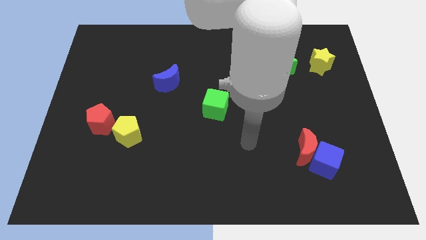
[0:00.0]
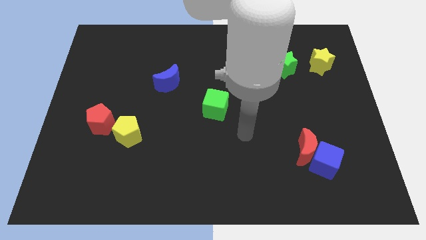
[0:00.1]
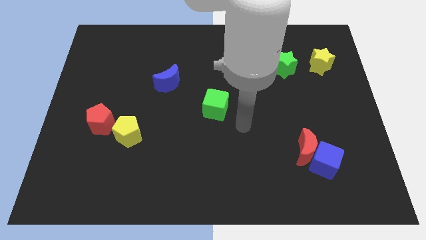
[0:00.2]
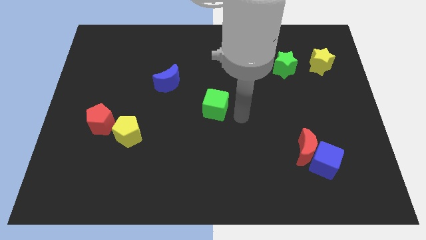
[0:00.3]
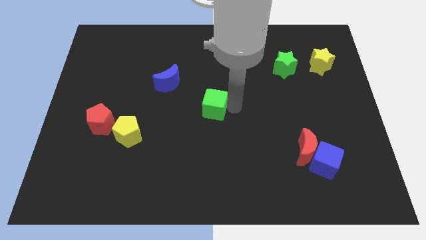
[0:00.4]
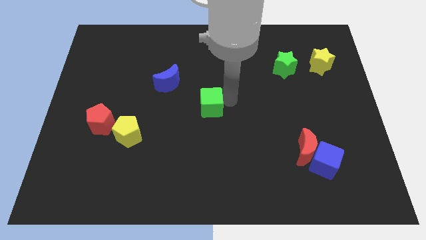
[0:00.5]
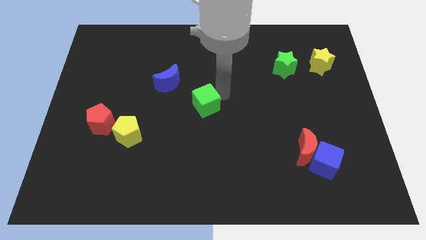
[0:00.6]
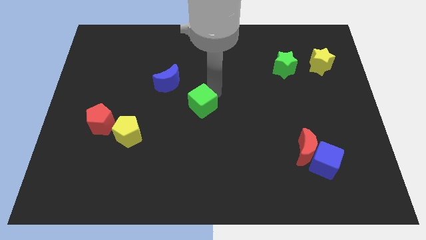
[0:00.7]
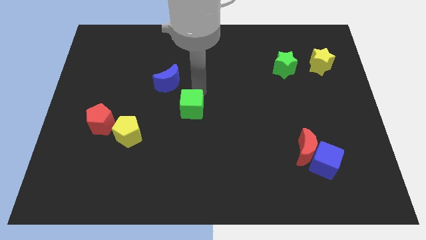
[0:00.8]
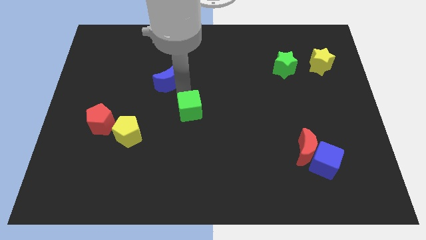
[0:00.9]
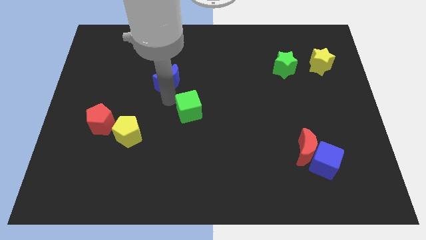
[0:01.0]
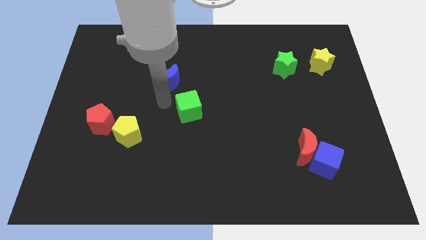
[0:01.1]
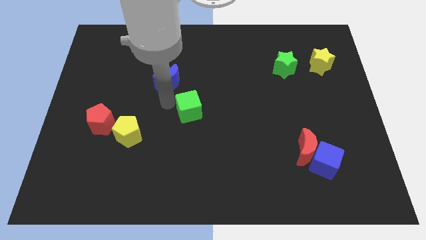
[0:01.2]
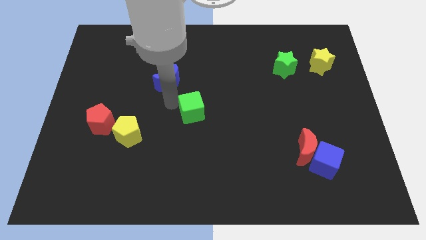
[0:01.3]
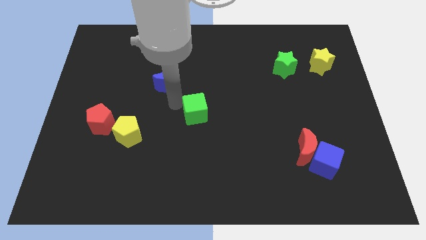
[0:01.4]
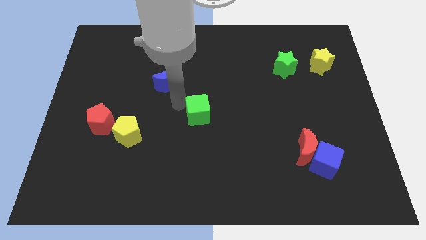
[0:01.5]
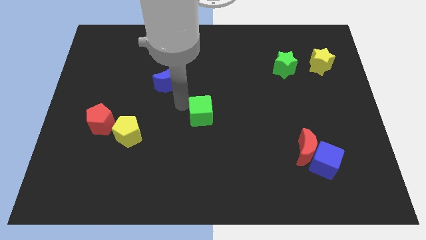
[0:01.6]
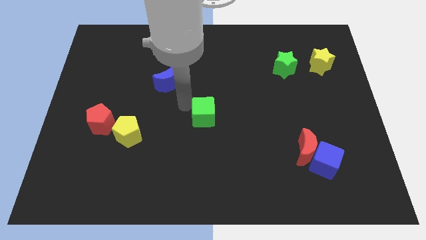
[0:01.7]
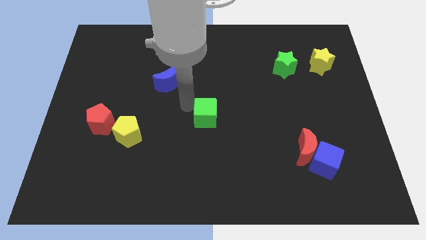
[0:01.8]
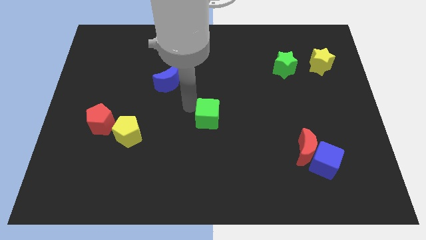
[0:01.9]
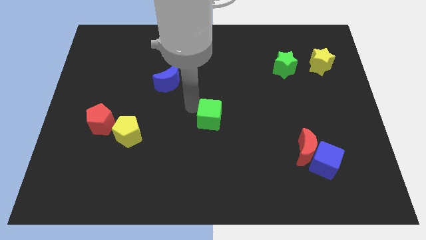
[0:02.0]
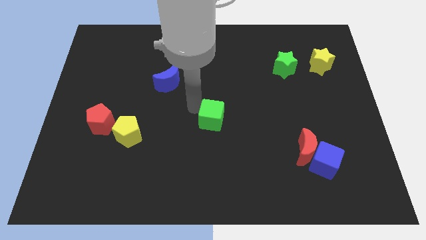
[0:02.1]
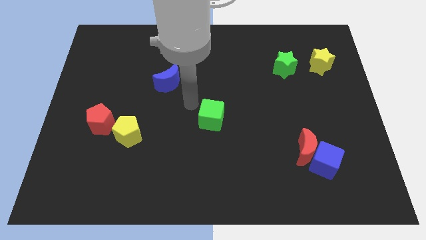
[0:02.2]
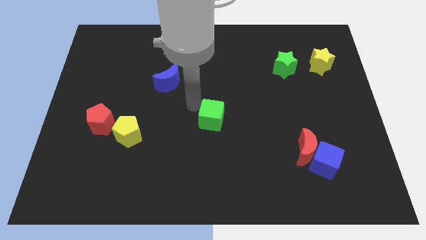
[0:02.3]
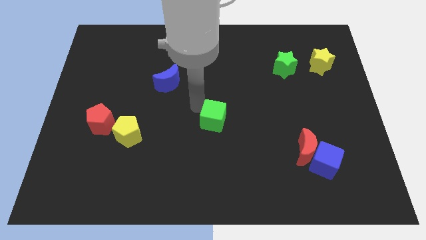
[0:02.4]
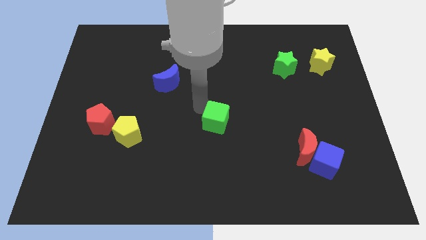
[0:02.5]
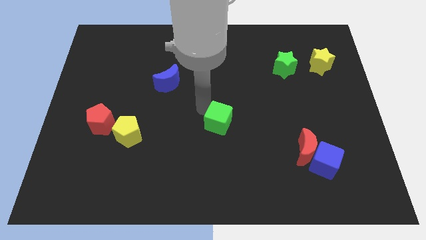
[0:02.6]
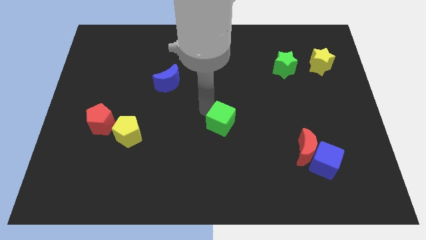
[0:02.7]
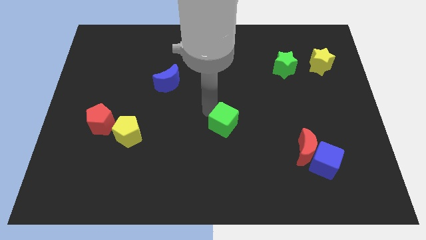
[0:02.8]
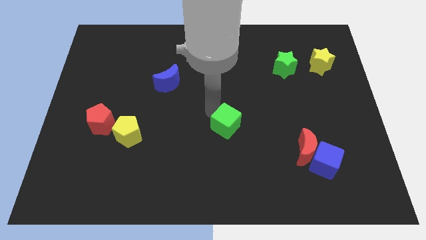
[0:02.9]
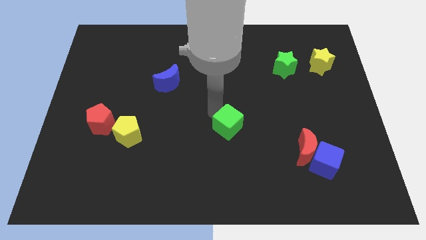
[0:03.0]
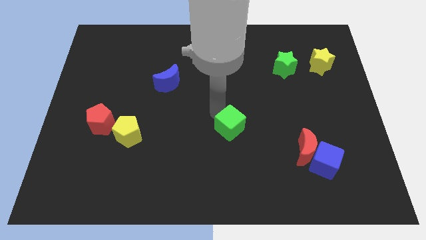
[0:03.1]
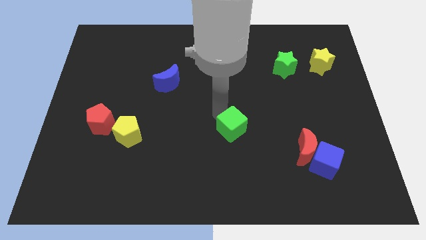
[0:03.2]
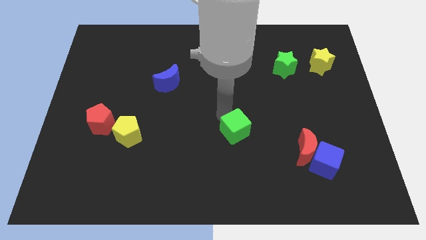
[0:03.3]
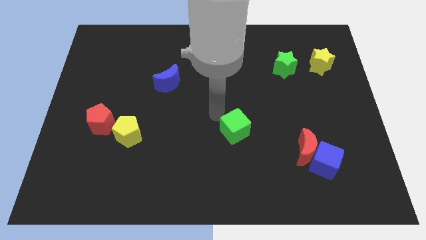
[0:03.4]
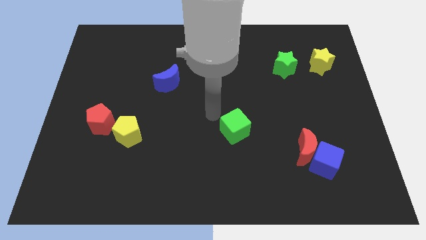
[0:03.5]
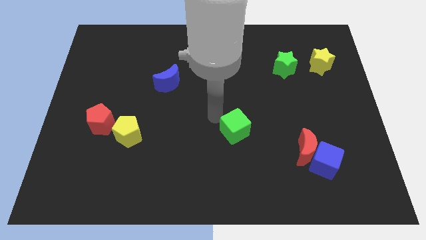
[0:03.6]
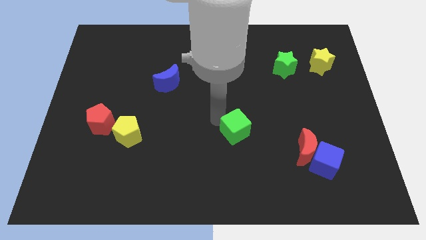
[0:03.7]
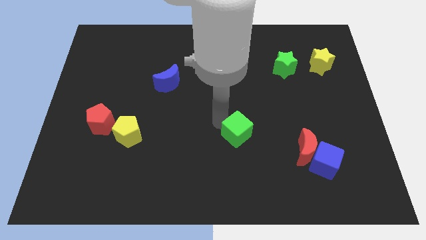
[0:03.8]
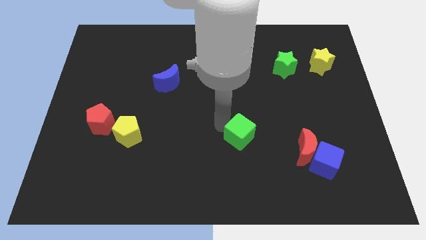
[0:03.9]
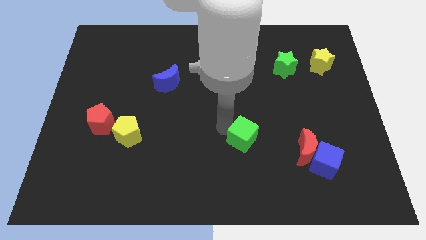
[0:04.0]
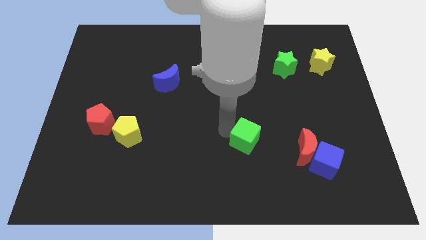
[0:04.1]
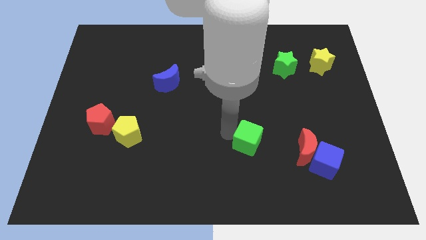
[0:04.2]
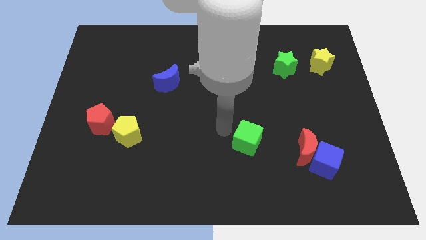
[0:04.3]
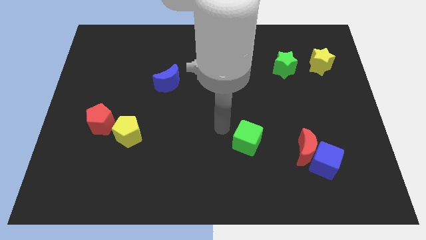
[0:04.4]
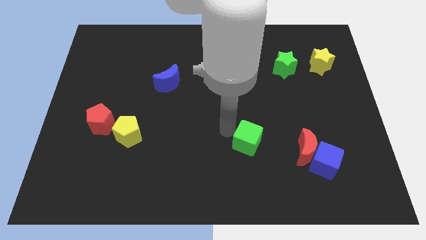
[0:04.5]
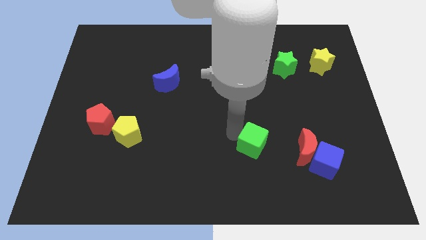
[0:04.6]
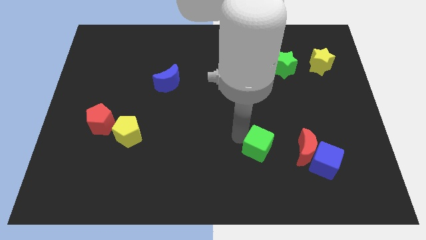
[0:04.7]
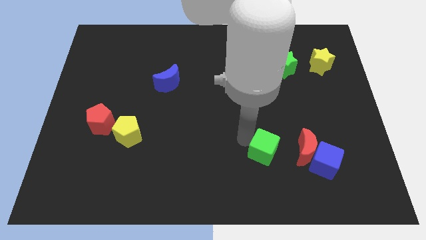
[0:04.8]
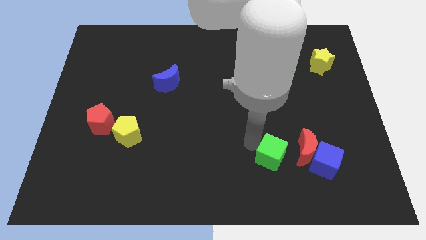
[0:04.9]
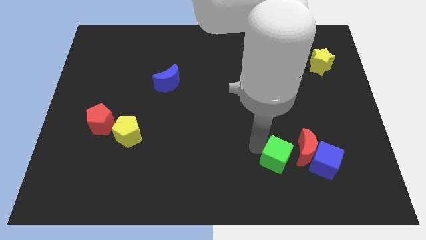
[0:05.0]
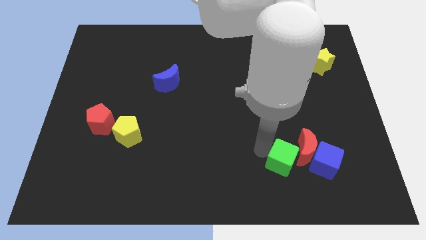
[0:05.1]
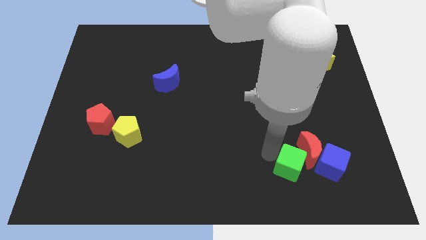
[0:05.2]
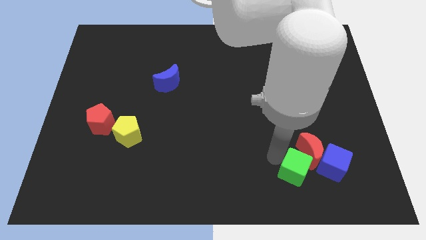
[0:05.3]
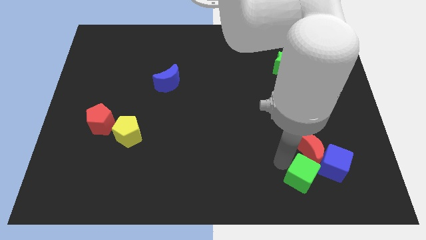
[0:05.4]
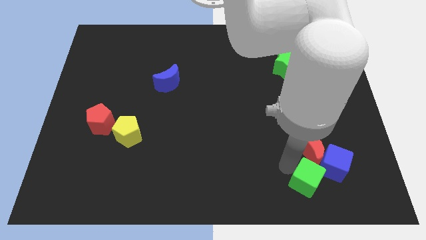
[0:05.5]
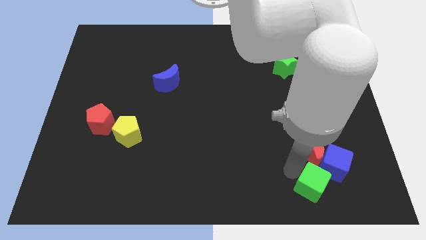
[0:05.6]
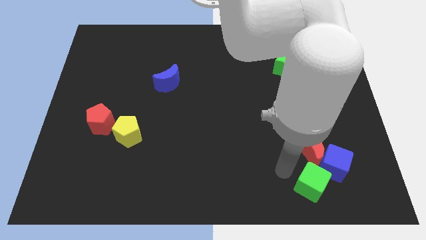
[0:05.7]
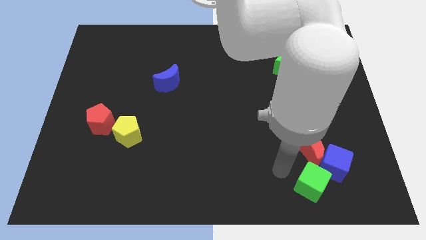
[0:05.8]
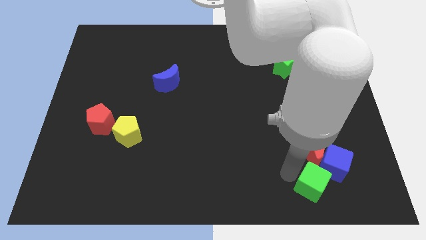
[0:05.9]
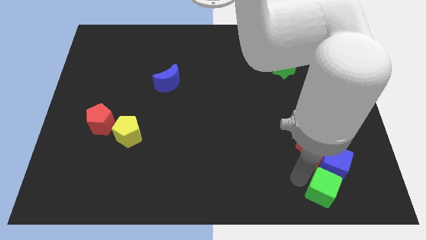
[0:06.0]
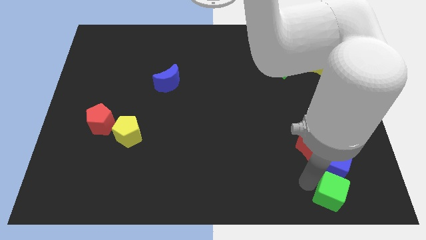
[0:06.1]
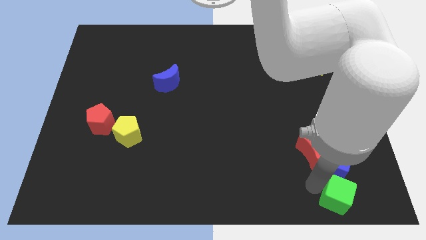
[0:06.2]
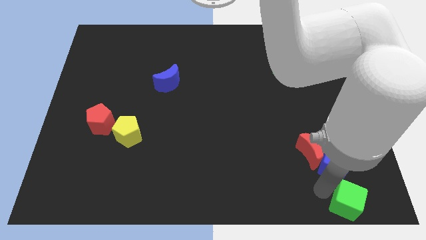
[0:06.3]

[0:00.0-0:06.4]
slide the green cube to the lower right corner

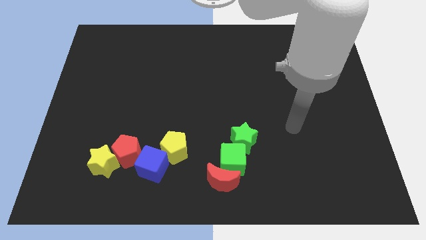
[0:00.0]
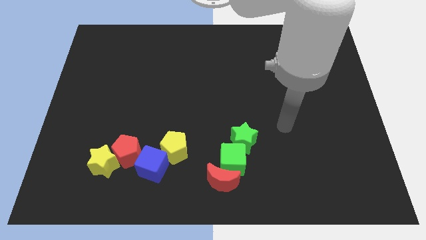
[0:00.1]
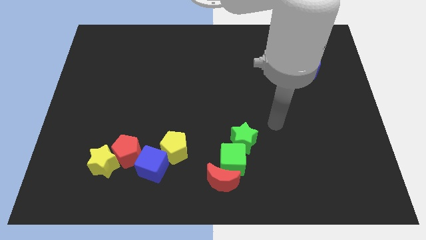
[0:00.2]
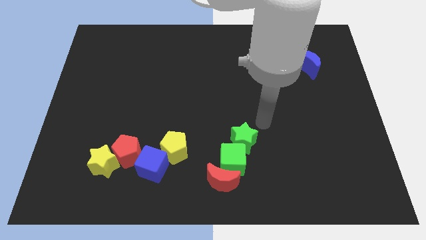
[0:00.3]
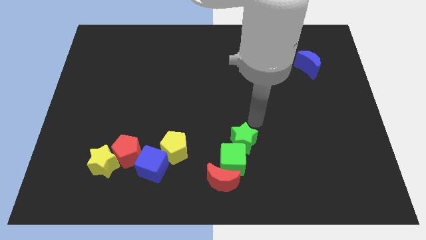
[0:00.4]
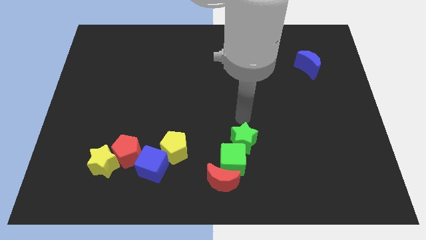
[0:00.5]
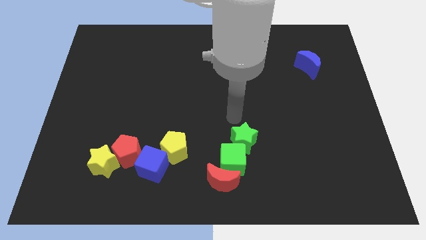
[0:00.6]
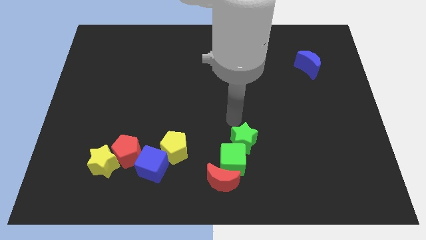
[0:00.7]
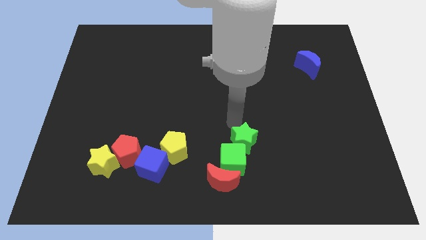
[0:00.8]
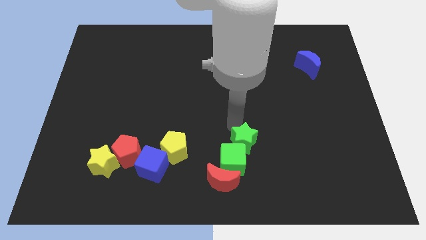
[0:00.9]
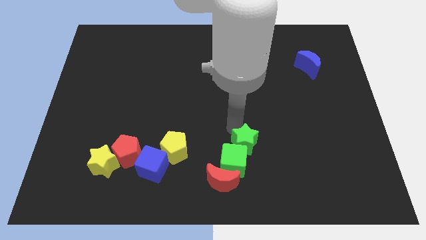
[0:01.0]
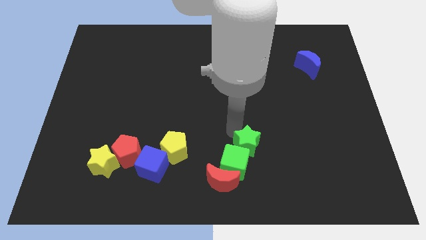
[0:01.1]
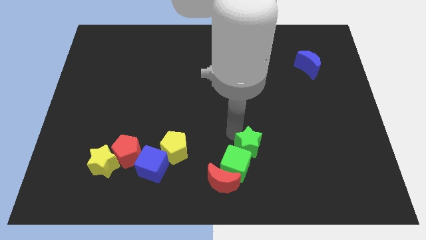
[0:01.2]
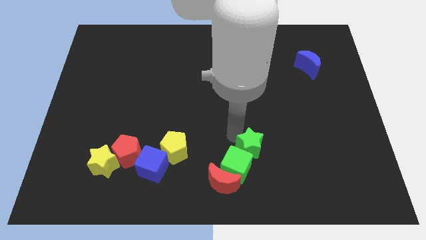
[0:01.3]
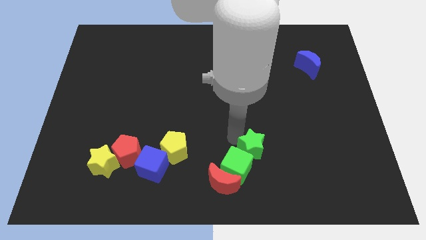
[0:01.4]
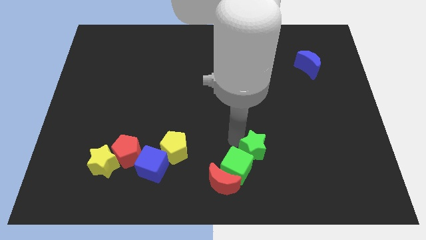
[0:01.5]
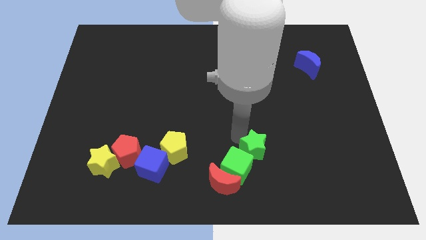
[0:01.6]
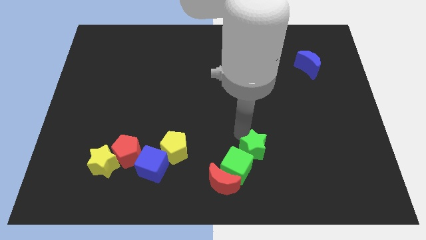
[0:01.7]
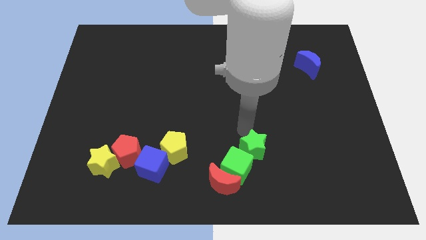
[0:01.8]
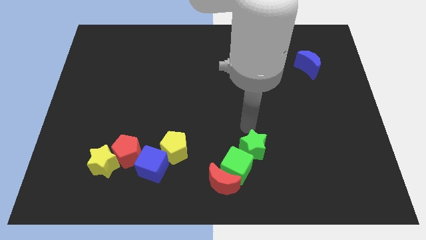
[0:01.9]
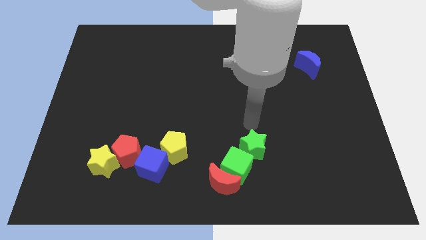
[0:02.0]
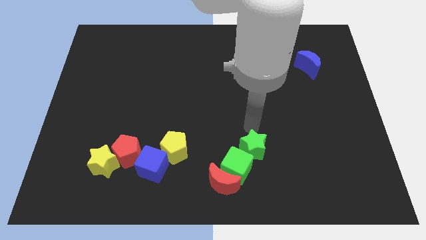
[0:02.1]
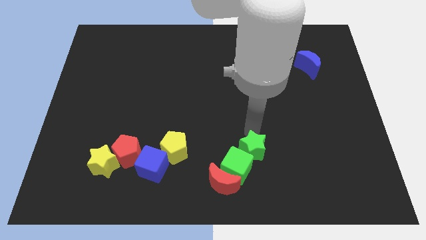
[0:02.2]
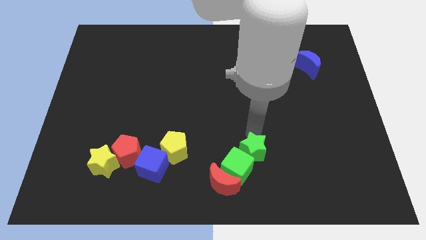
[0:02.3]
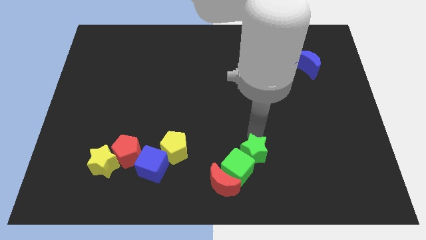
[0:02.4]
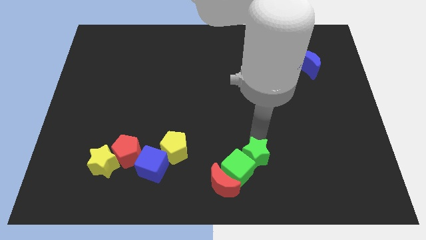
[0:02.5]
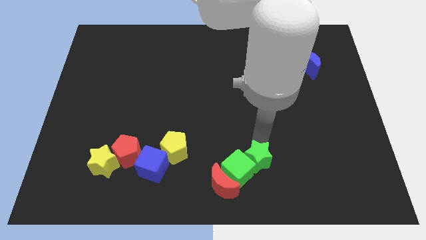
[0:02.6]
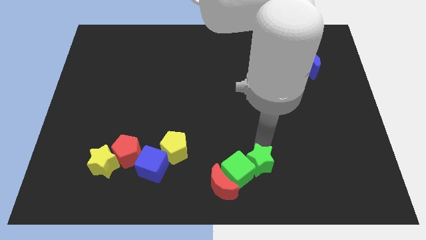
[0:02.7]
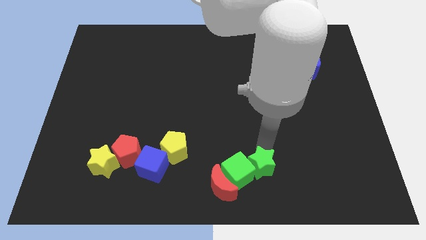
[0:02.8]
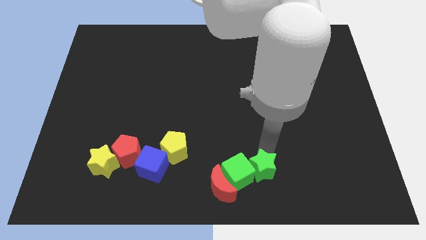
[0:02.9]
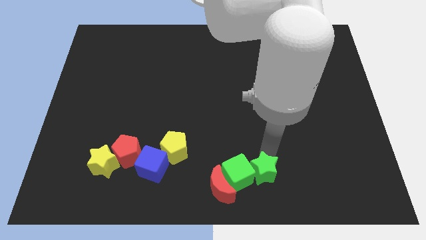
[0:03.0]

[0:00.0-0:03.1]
put the green star to the bottom side
